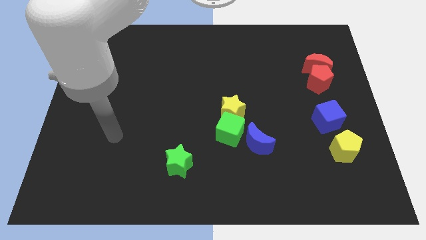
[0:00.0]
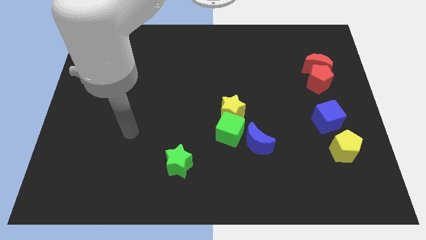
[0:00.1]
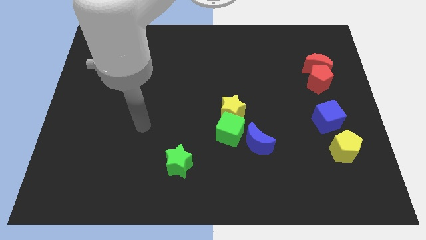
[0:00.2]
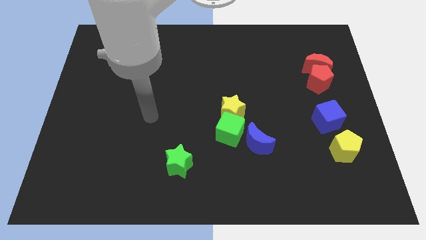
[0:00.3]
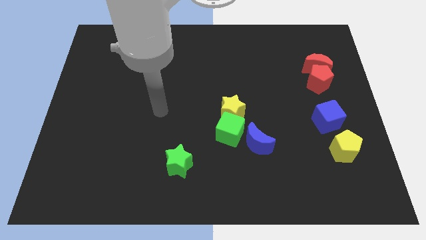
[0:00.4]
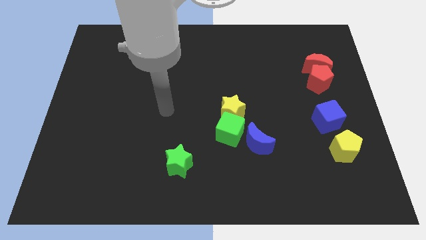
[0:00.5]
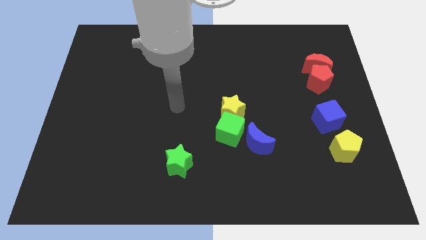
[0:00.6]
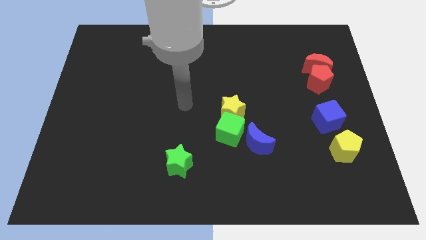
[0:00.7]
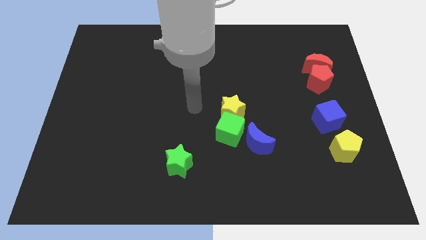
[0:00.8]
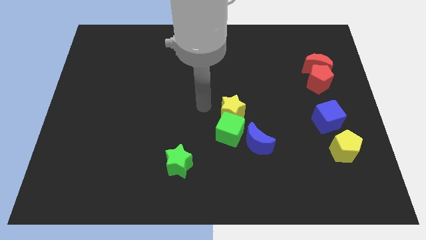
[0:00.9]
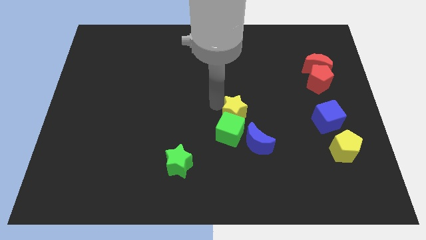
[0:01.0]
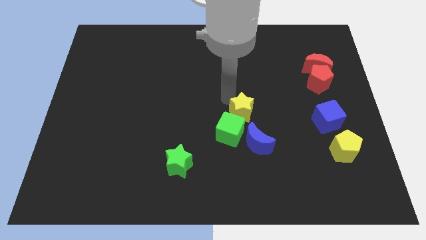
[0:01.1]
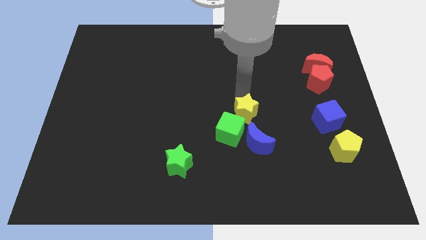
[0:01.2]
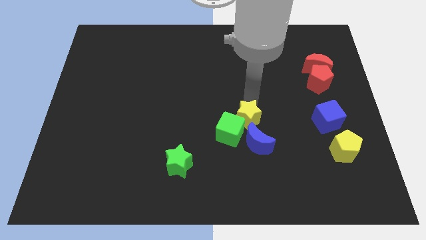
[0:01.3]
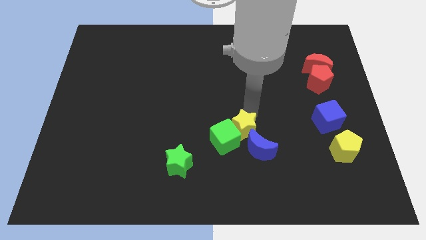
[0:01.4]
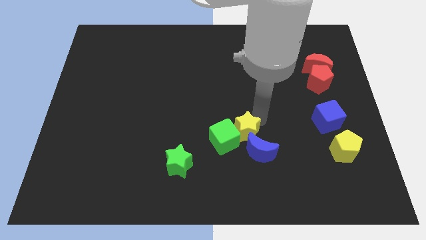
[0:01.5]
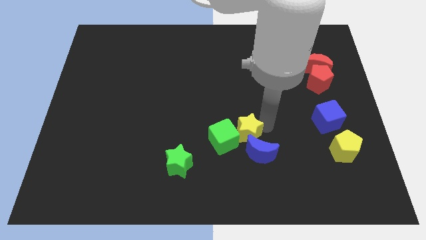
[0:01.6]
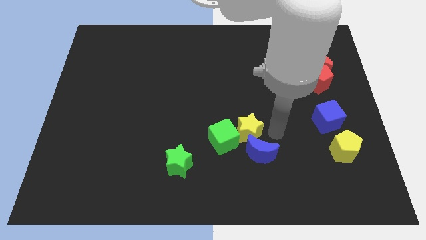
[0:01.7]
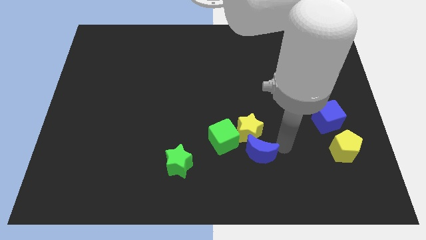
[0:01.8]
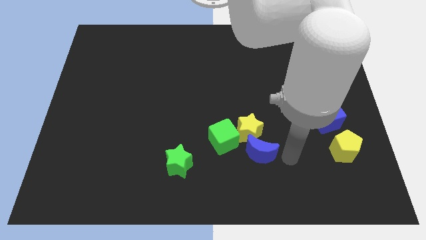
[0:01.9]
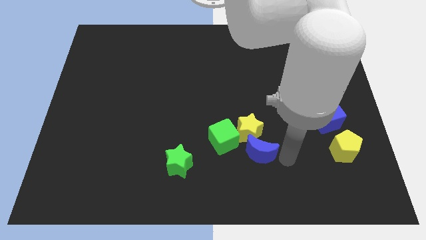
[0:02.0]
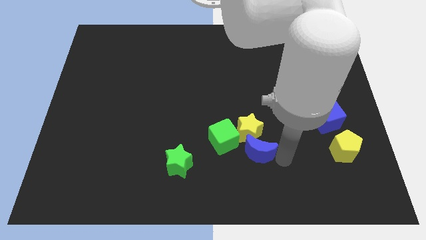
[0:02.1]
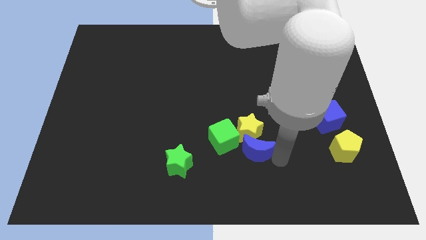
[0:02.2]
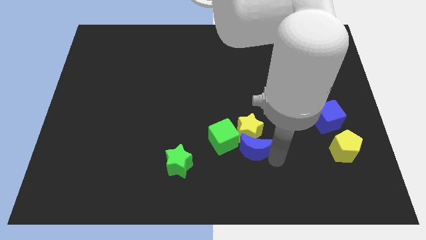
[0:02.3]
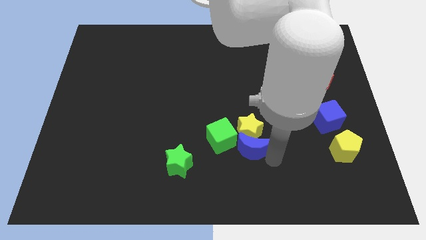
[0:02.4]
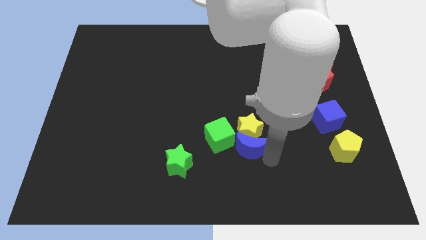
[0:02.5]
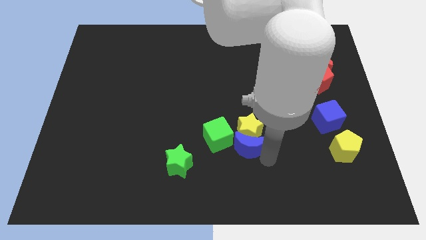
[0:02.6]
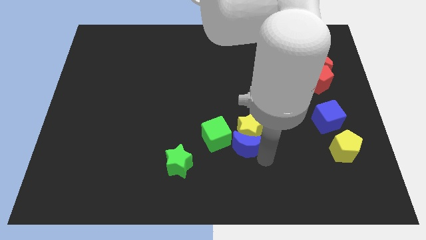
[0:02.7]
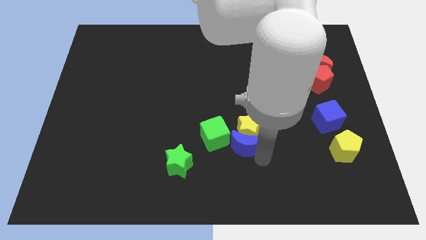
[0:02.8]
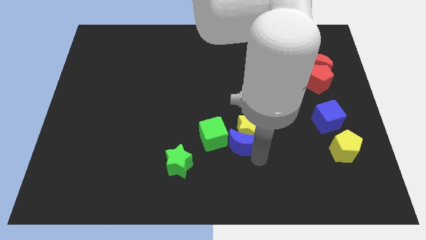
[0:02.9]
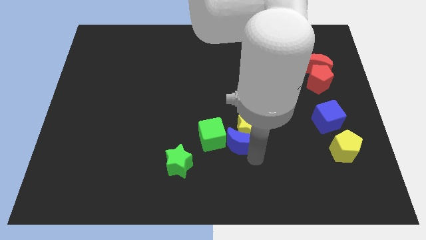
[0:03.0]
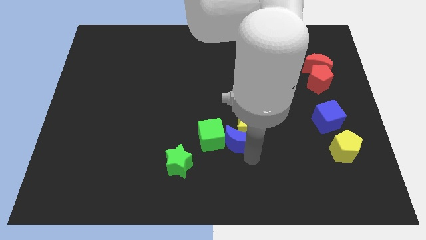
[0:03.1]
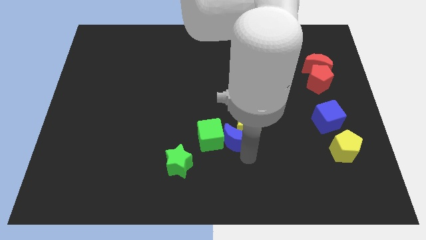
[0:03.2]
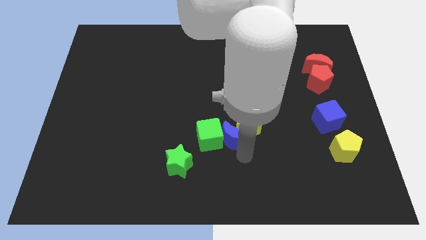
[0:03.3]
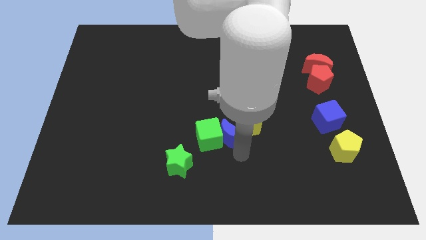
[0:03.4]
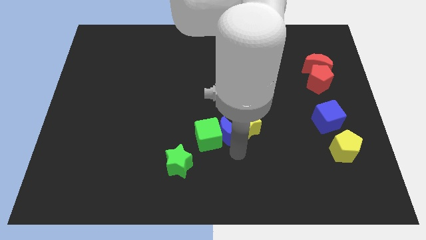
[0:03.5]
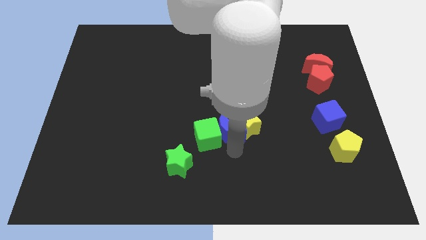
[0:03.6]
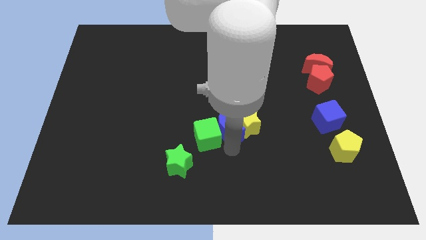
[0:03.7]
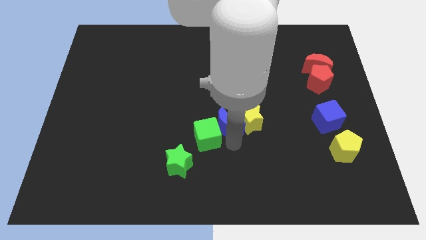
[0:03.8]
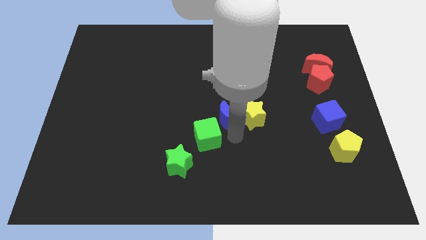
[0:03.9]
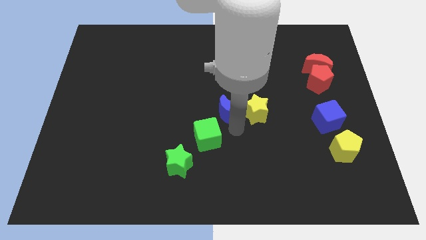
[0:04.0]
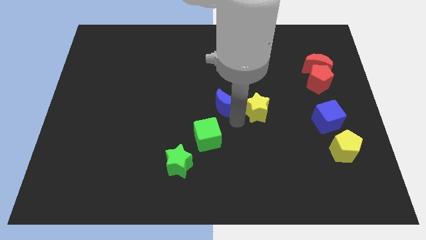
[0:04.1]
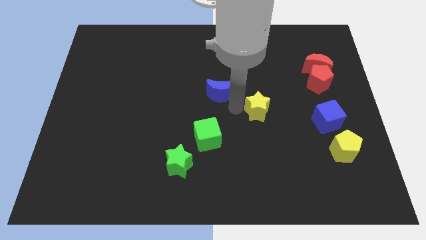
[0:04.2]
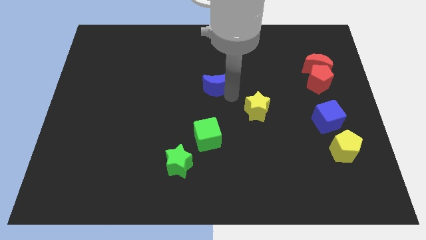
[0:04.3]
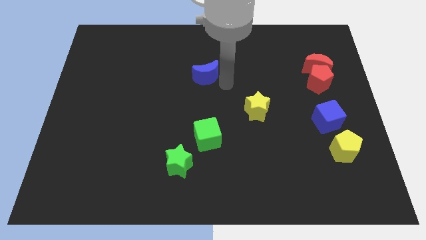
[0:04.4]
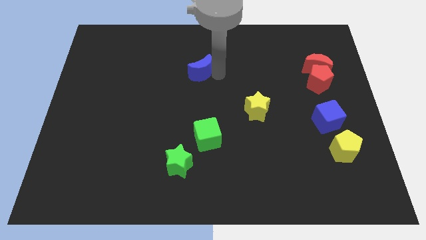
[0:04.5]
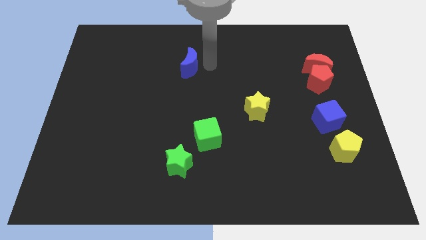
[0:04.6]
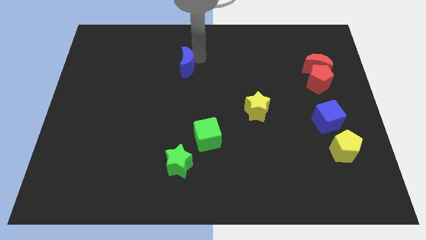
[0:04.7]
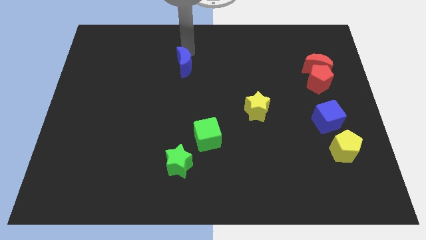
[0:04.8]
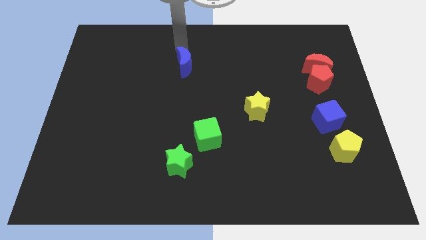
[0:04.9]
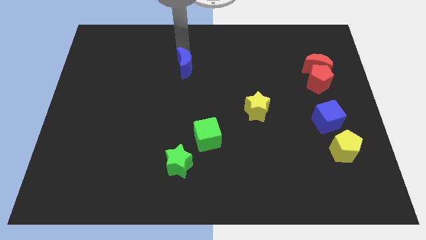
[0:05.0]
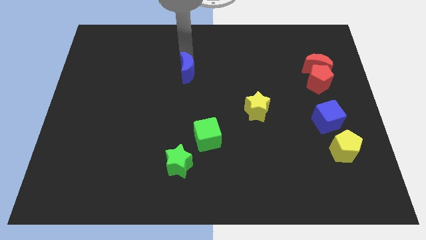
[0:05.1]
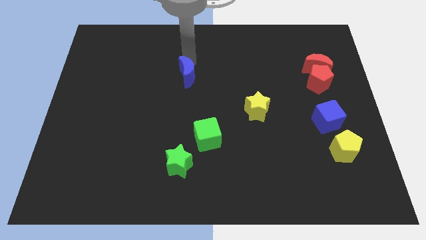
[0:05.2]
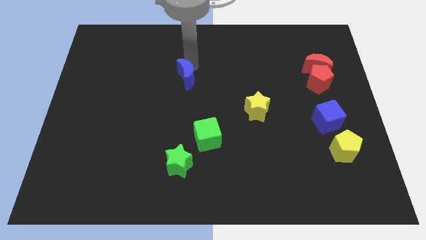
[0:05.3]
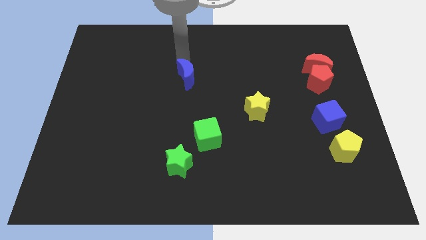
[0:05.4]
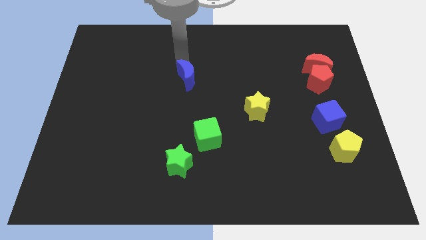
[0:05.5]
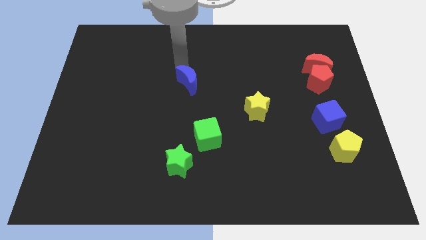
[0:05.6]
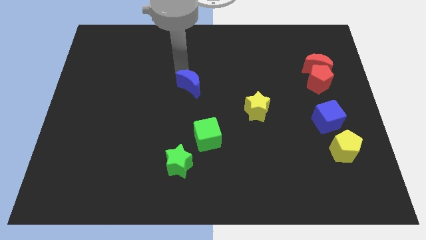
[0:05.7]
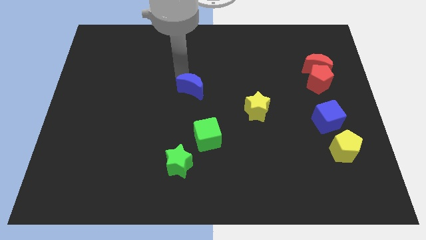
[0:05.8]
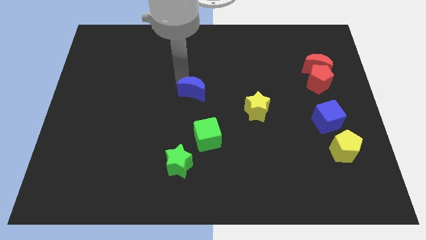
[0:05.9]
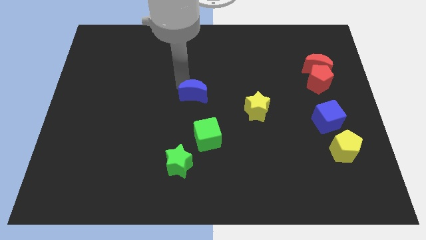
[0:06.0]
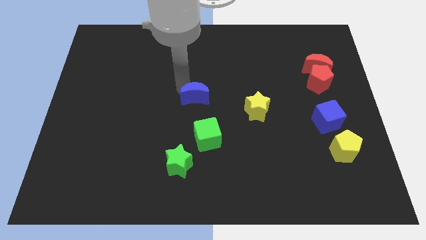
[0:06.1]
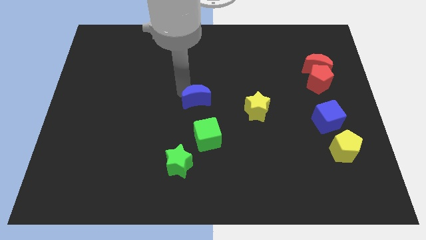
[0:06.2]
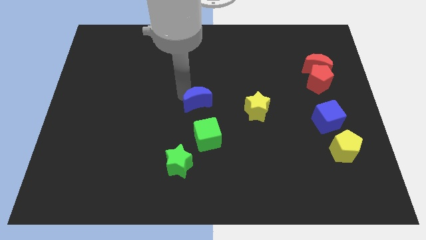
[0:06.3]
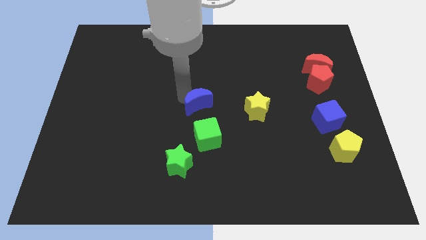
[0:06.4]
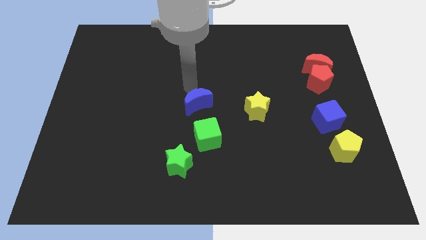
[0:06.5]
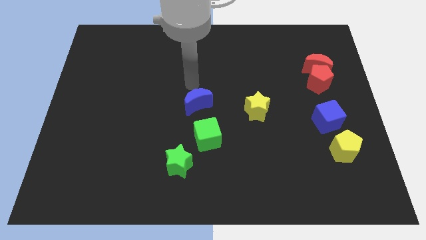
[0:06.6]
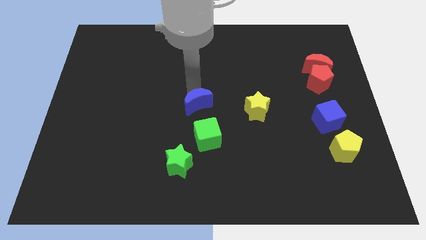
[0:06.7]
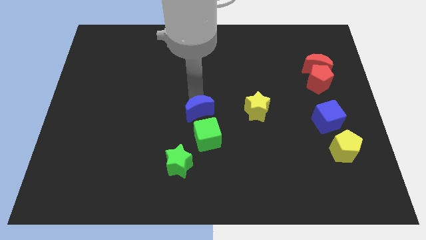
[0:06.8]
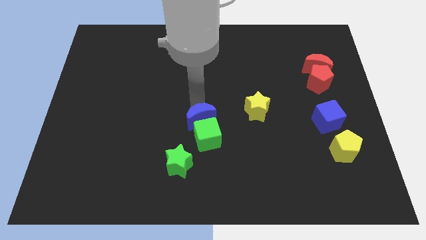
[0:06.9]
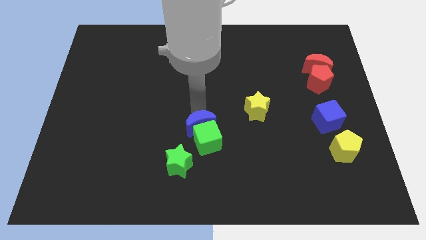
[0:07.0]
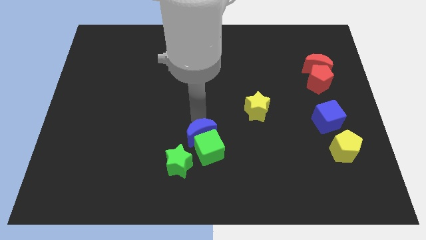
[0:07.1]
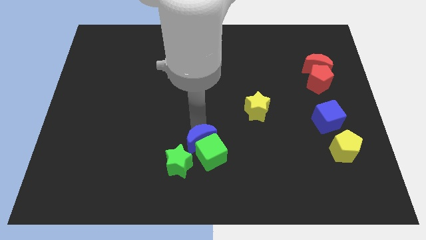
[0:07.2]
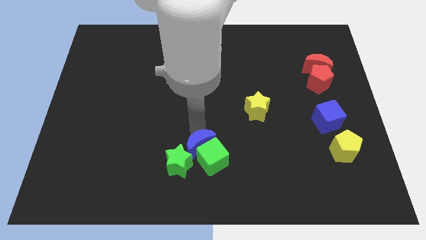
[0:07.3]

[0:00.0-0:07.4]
slide the blue moon to the green star
